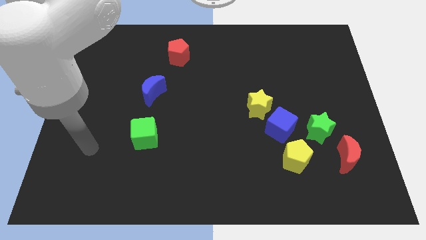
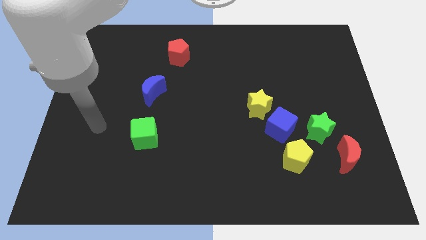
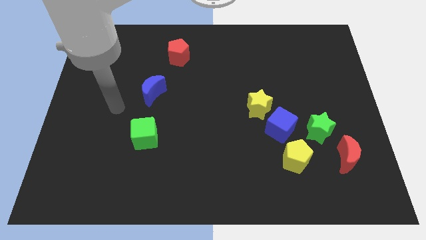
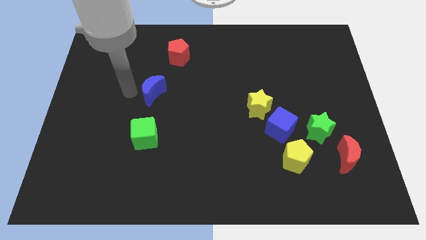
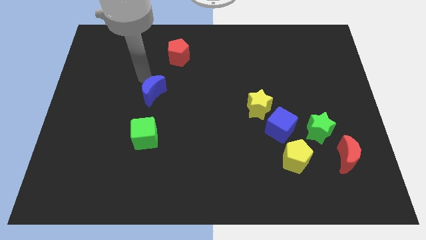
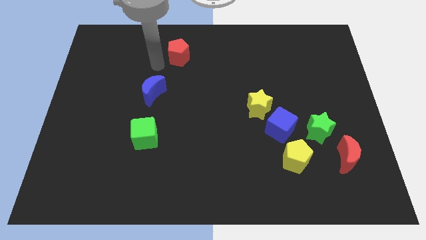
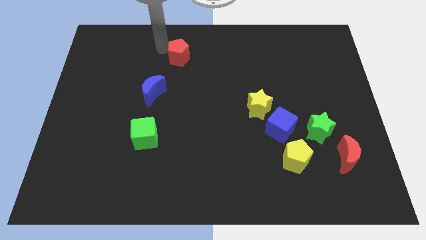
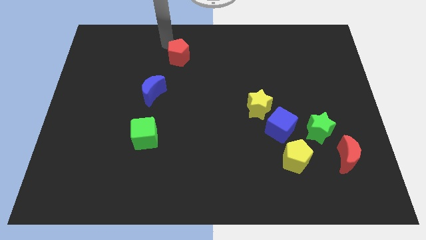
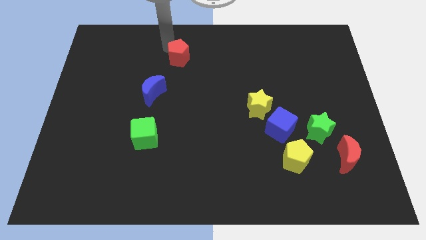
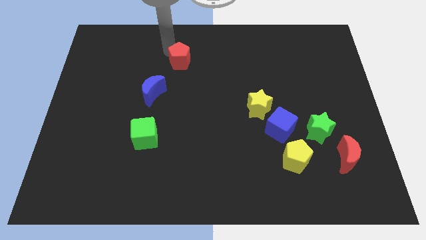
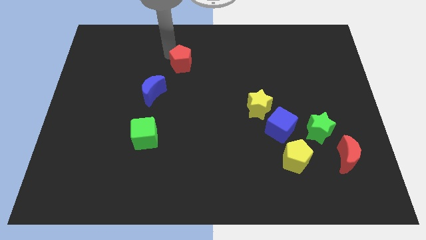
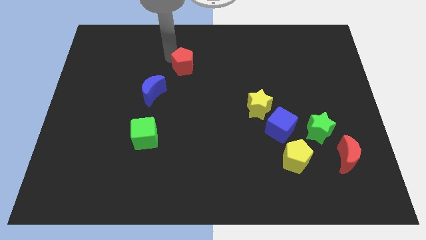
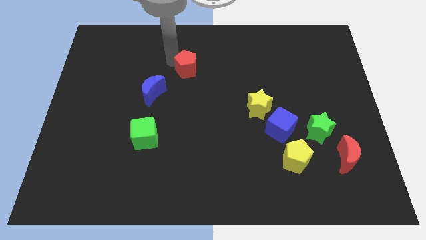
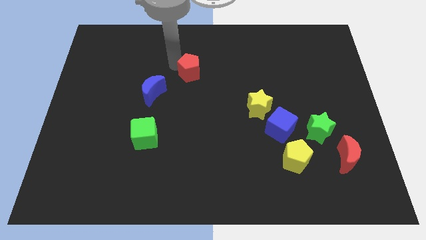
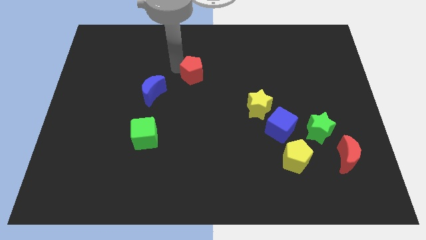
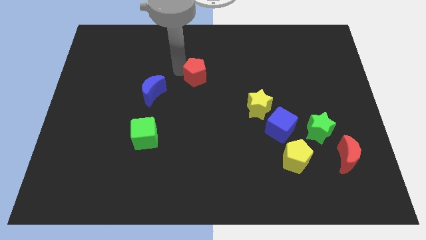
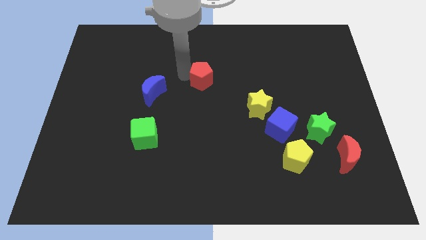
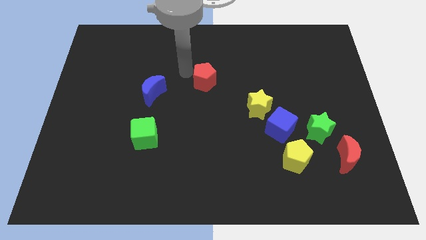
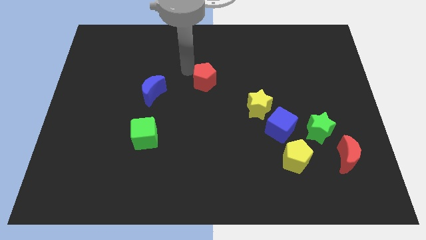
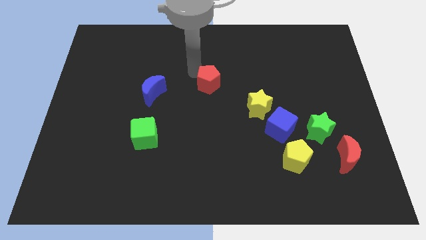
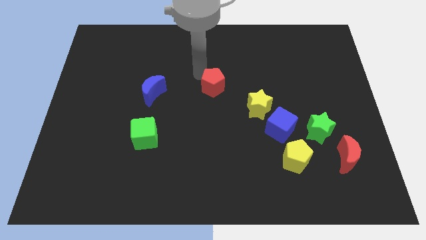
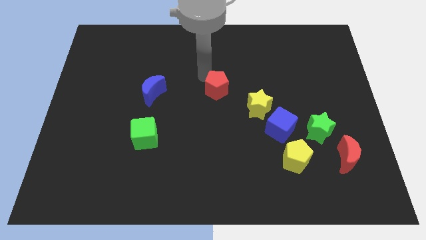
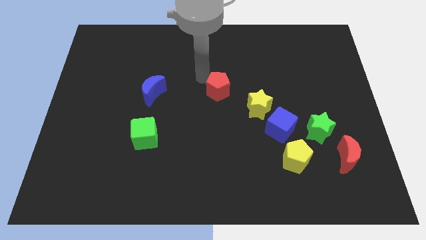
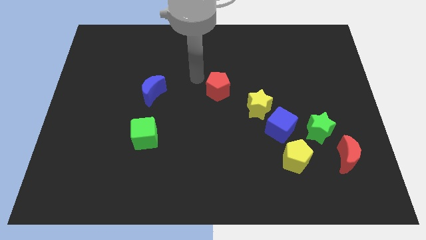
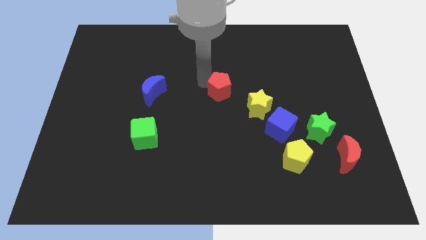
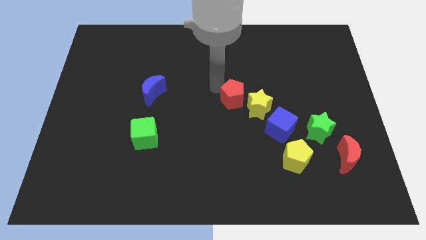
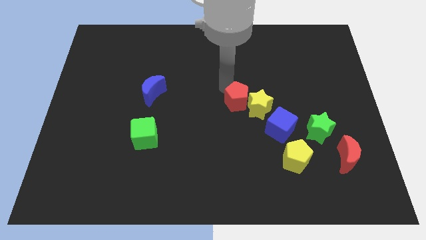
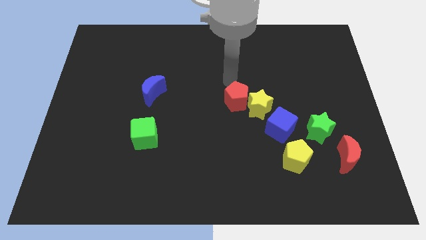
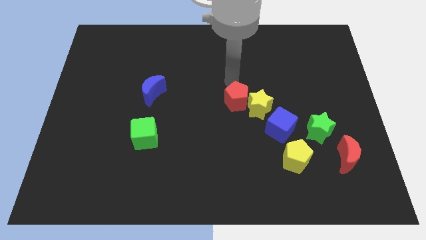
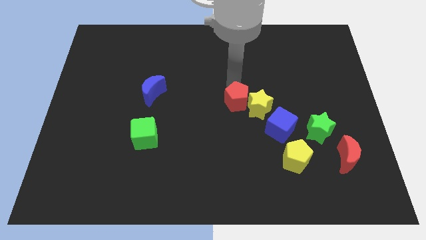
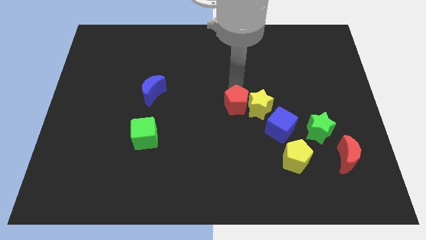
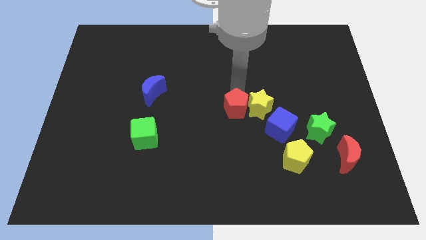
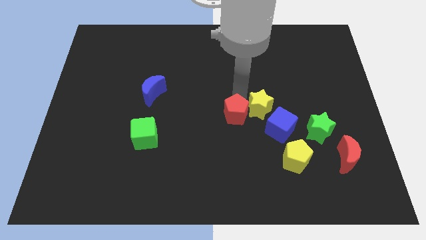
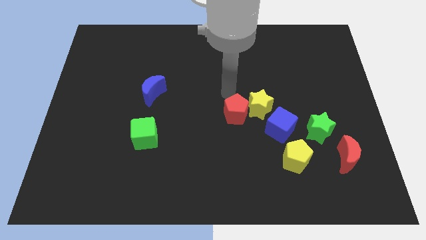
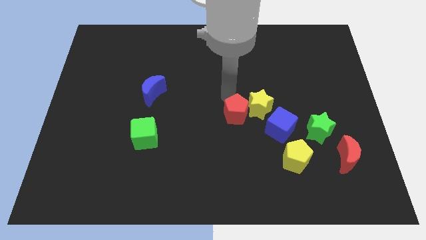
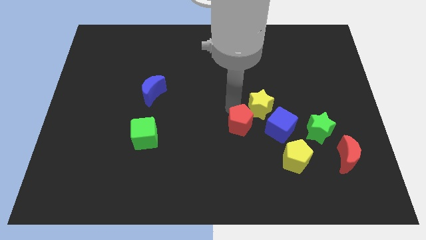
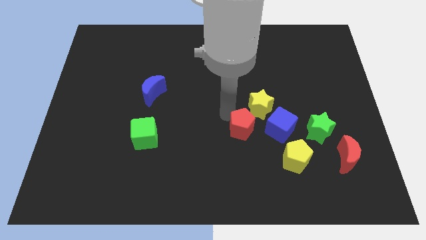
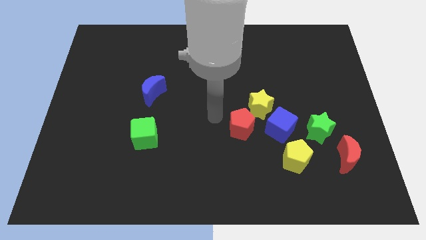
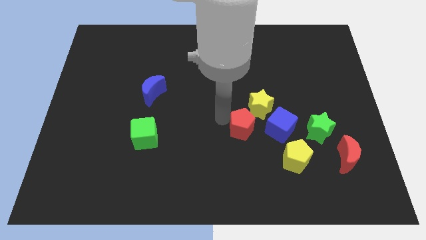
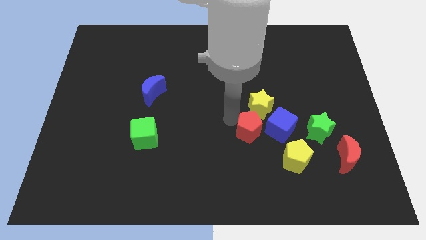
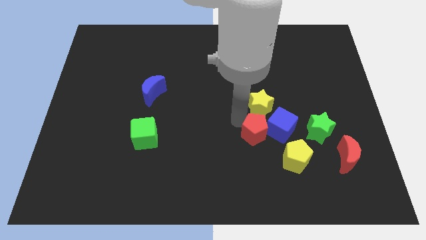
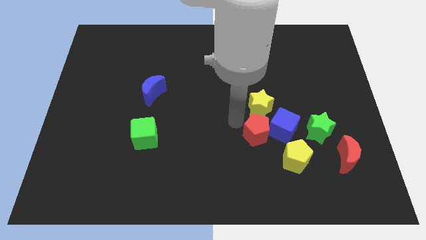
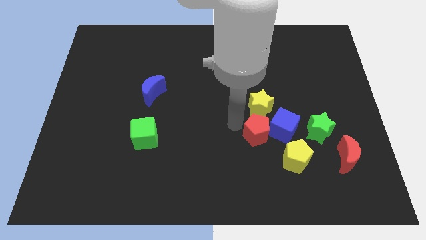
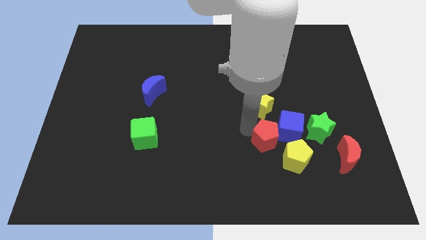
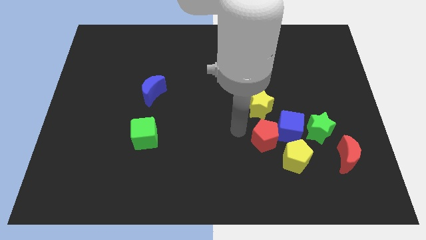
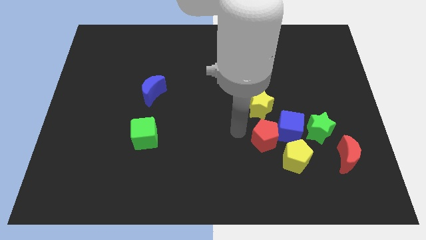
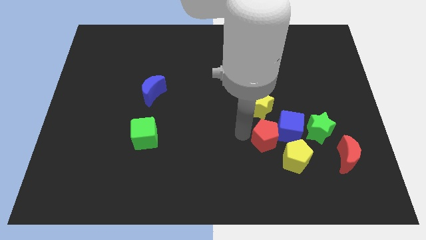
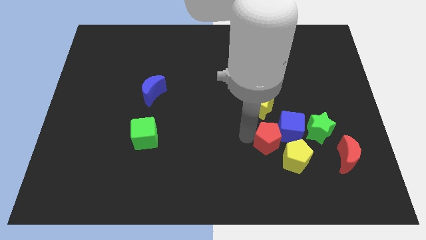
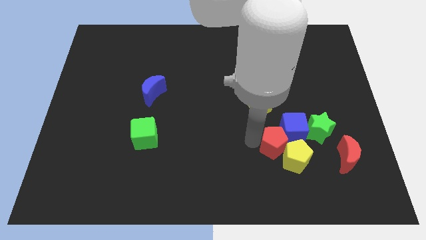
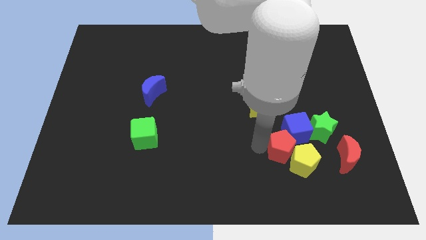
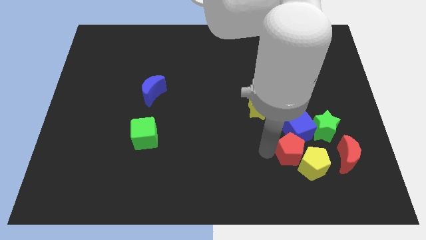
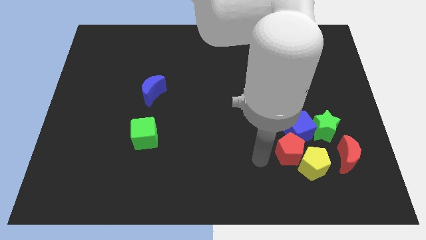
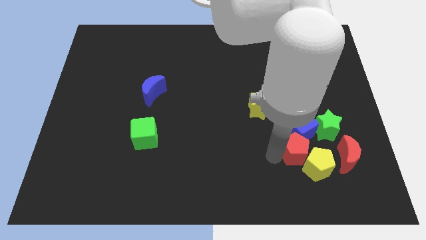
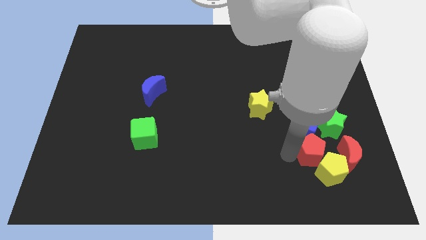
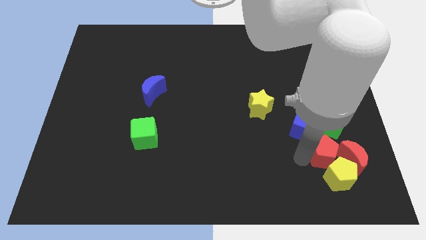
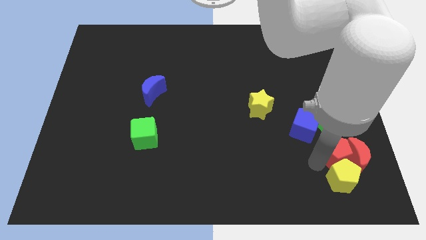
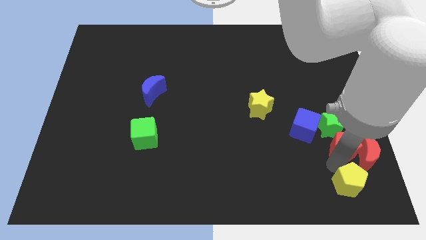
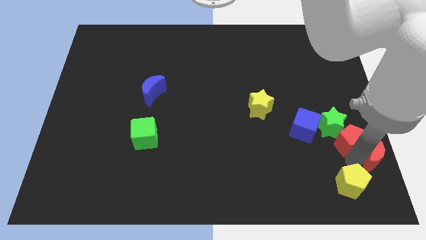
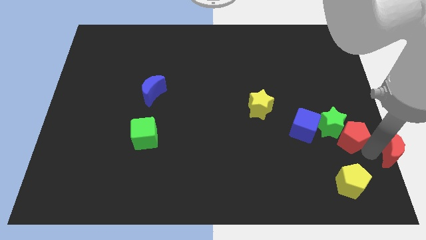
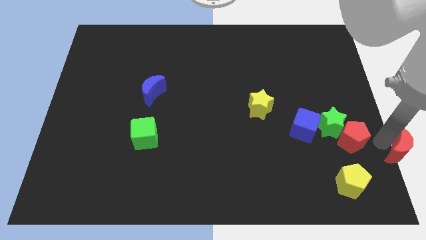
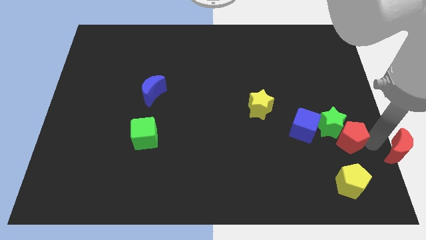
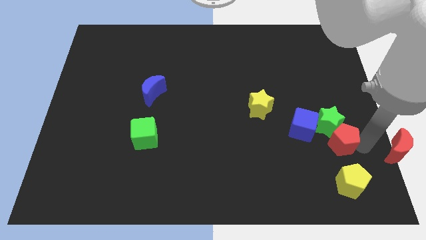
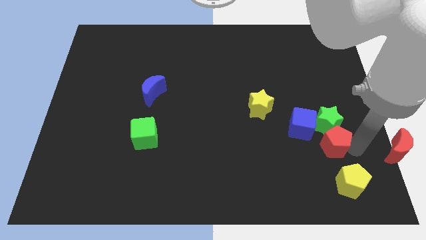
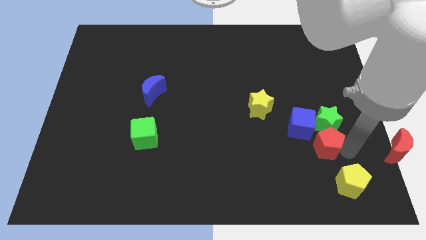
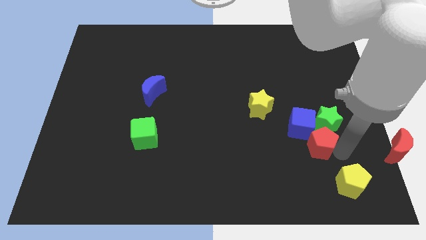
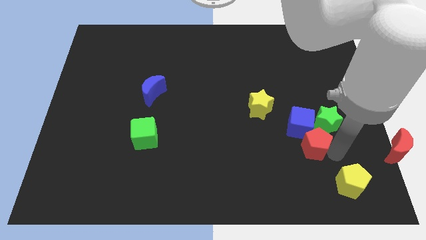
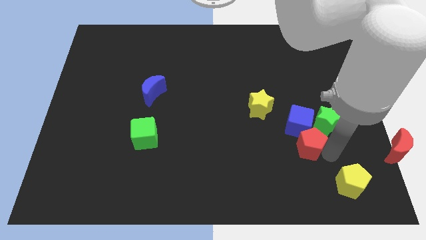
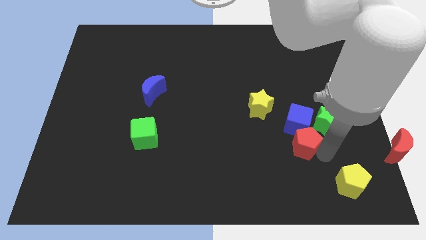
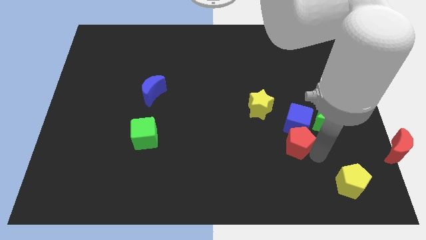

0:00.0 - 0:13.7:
move the red pentagon to the bottom right of the yellow star

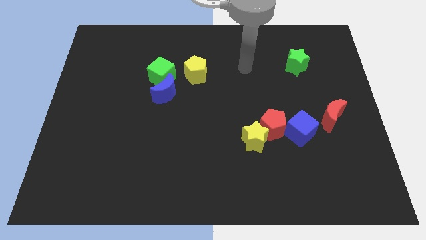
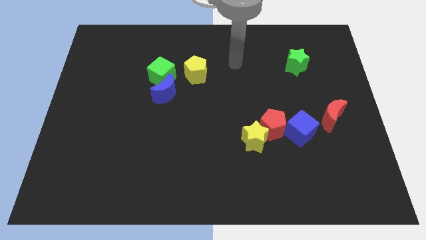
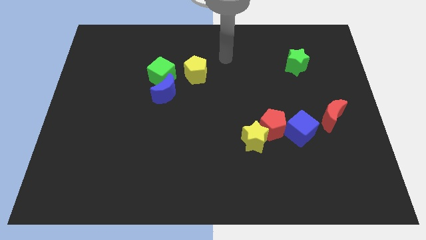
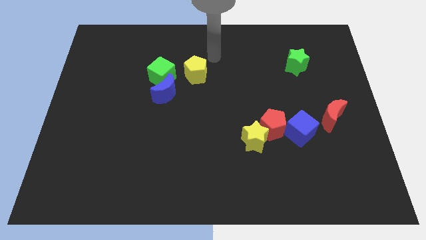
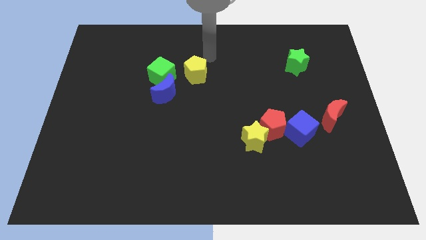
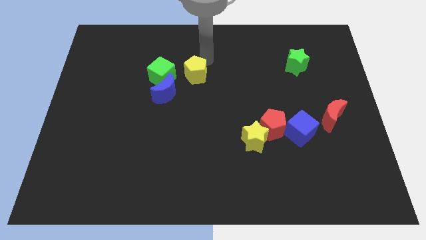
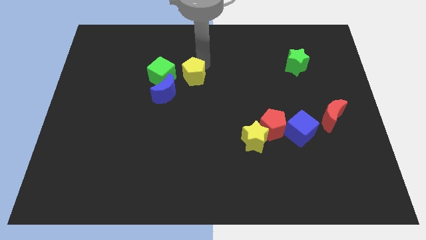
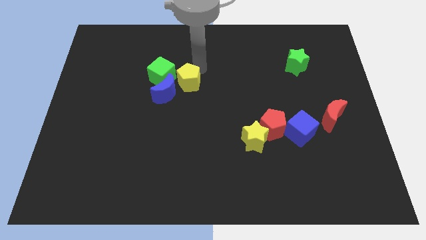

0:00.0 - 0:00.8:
move the yellow pentagon diagonally down and to the right of the green cube
